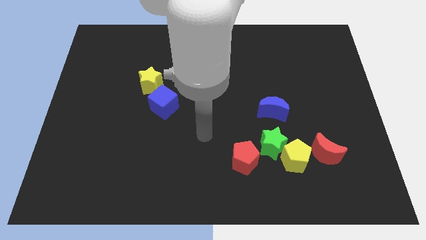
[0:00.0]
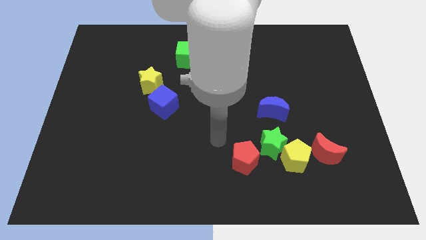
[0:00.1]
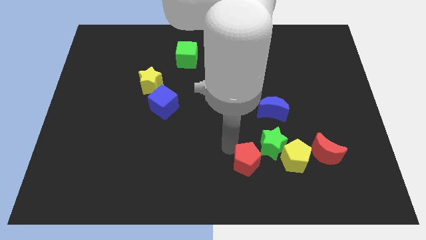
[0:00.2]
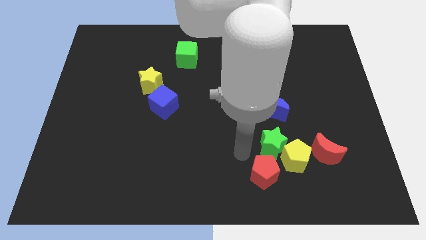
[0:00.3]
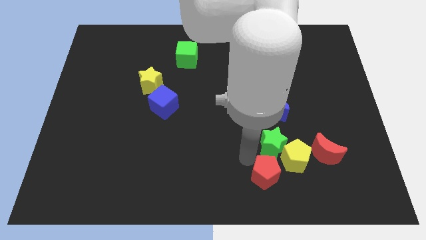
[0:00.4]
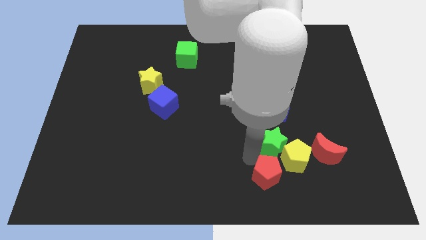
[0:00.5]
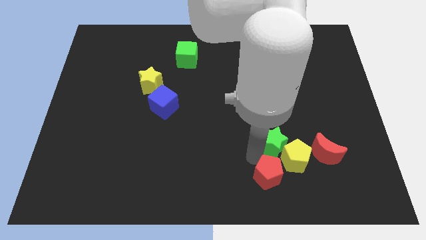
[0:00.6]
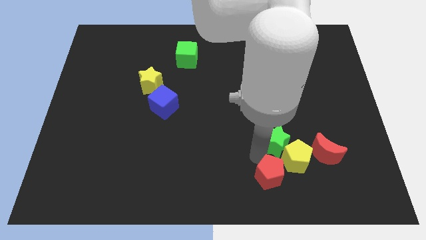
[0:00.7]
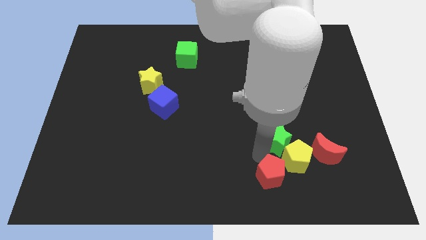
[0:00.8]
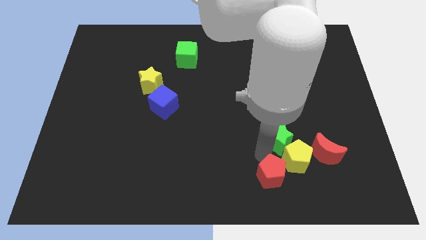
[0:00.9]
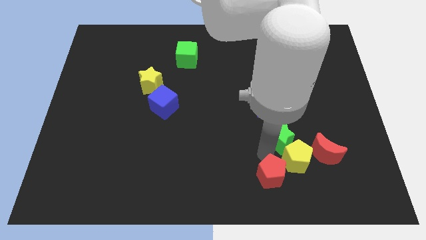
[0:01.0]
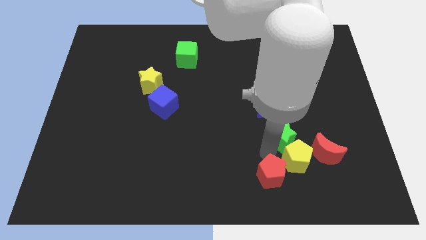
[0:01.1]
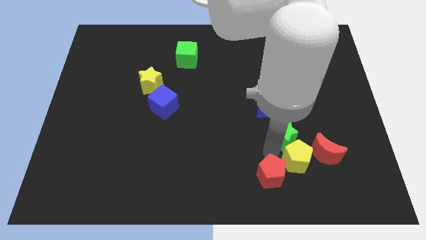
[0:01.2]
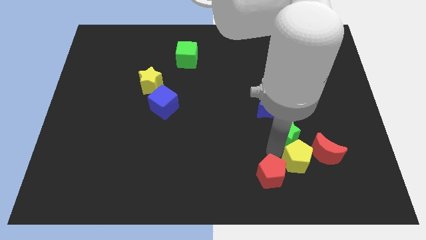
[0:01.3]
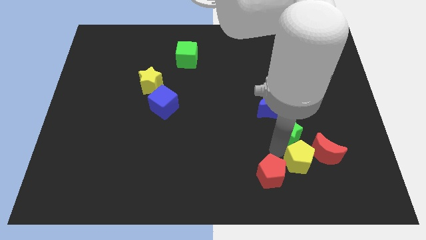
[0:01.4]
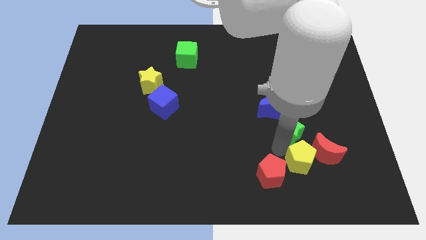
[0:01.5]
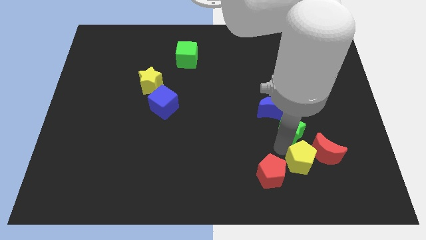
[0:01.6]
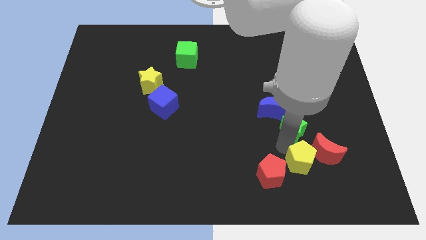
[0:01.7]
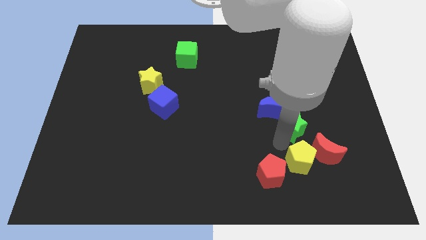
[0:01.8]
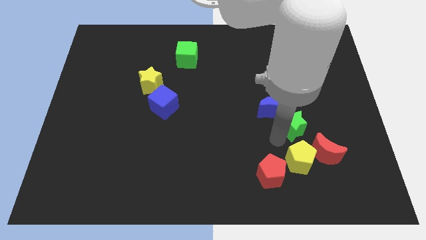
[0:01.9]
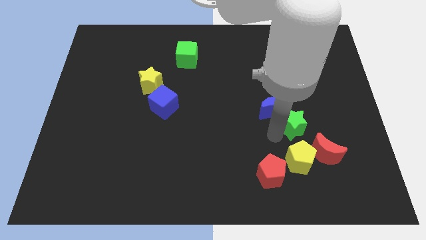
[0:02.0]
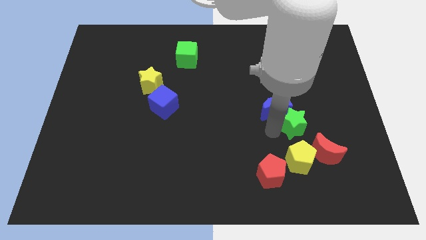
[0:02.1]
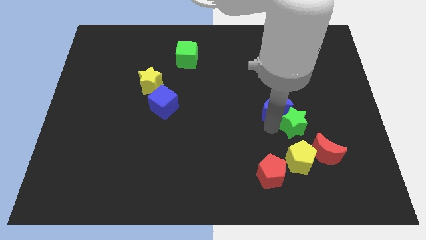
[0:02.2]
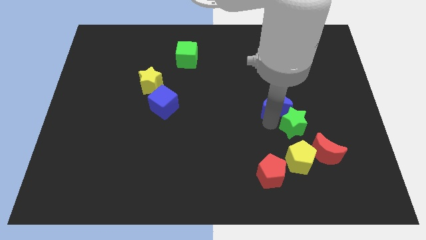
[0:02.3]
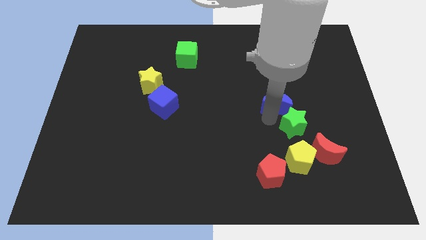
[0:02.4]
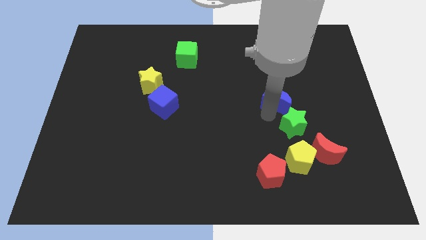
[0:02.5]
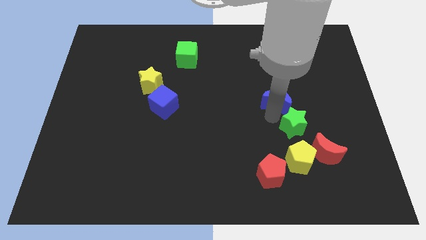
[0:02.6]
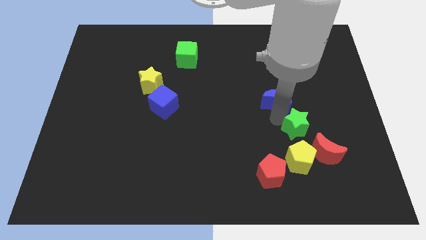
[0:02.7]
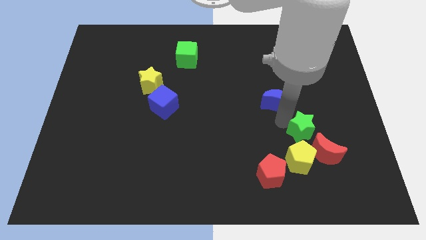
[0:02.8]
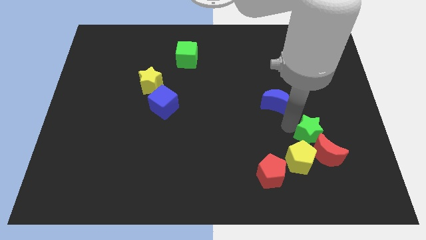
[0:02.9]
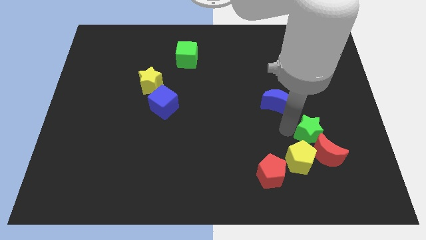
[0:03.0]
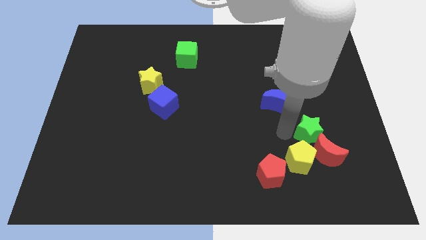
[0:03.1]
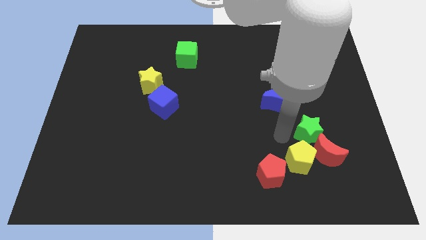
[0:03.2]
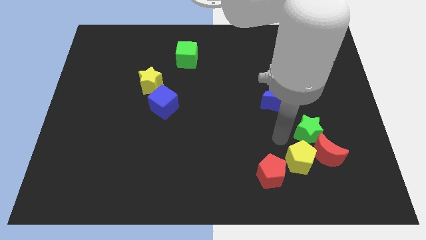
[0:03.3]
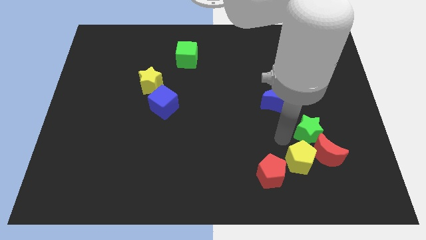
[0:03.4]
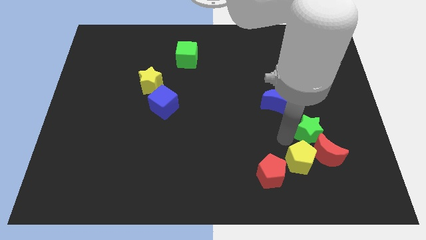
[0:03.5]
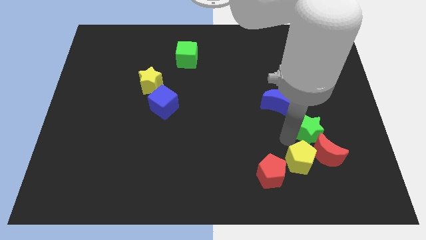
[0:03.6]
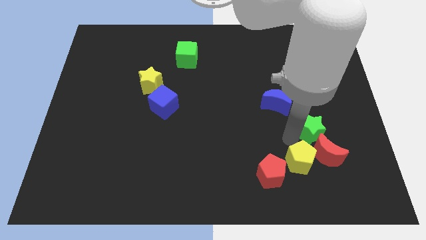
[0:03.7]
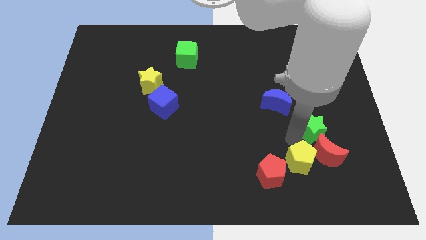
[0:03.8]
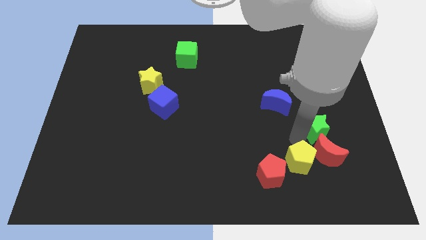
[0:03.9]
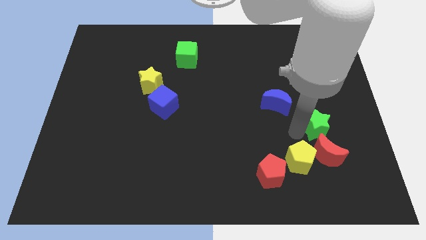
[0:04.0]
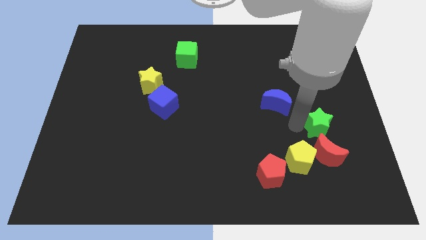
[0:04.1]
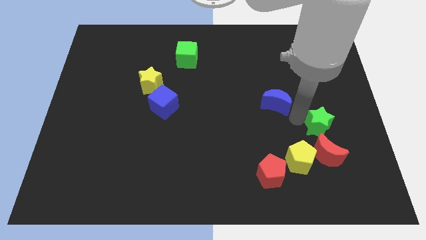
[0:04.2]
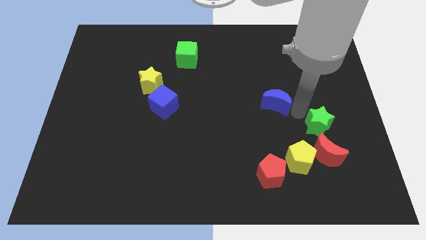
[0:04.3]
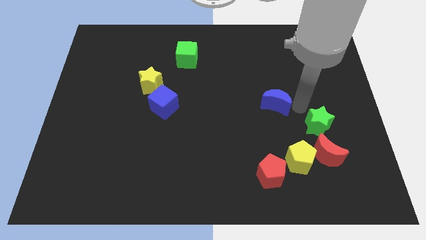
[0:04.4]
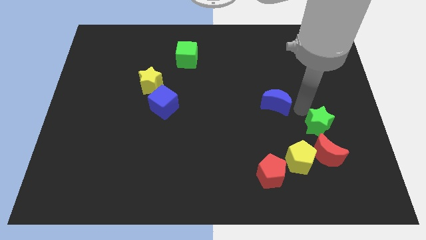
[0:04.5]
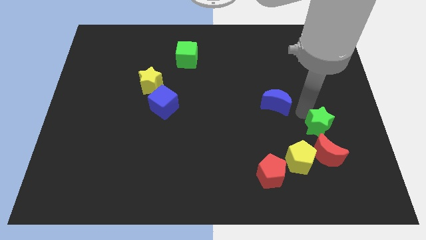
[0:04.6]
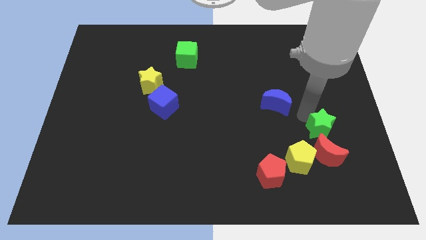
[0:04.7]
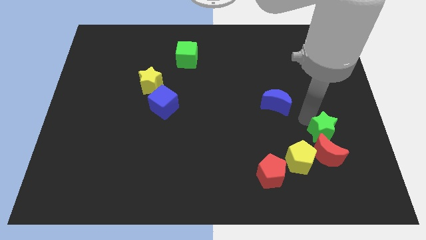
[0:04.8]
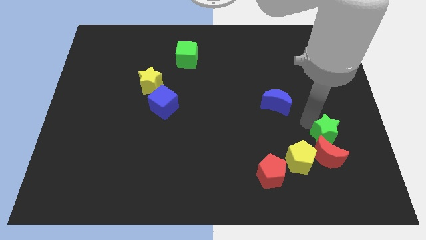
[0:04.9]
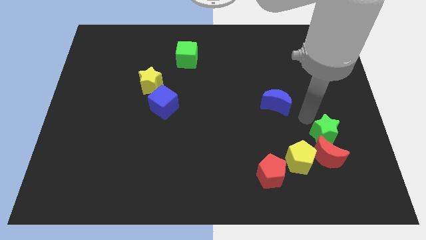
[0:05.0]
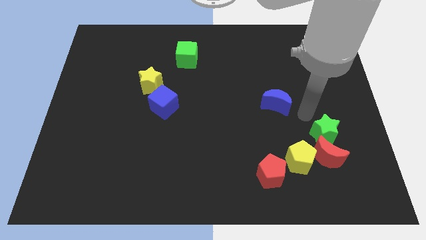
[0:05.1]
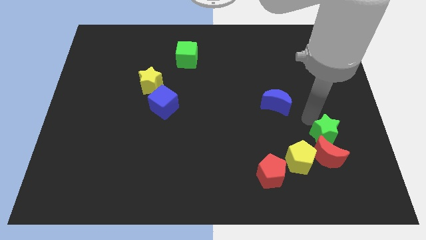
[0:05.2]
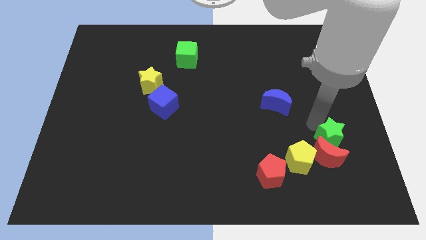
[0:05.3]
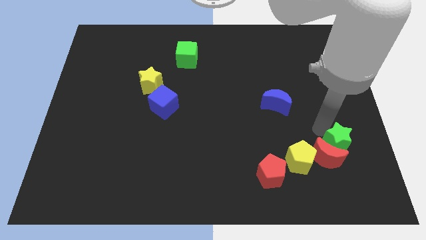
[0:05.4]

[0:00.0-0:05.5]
put the green star to the right of the yellow pentagon

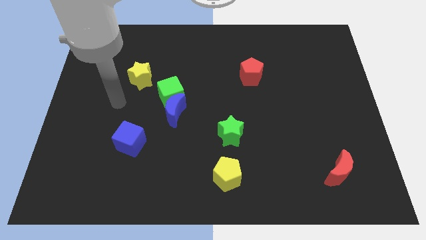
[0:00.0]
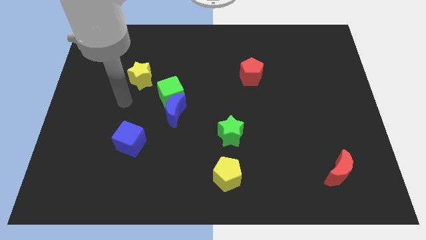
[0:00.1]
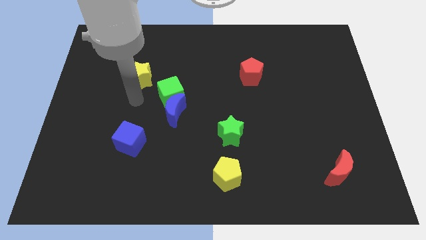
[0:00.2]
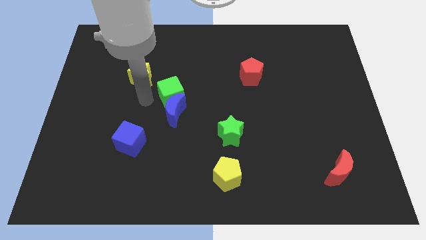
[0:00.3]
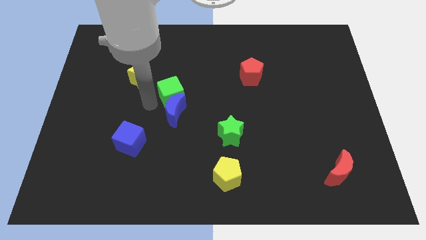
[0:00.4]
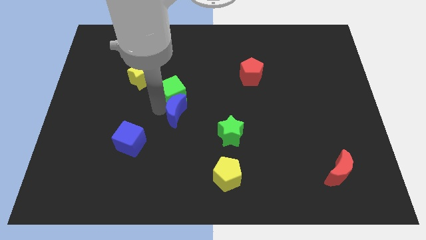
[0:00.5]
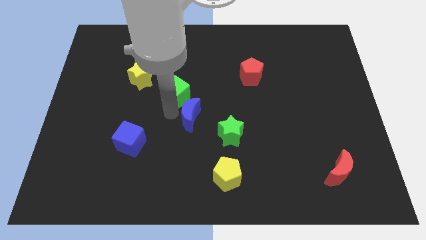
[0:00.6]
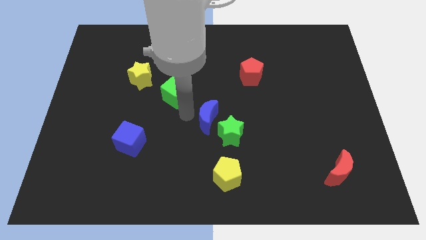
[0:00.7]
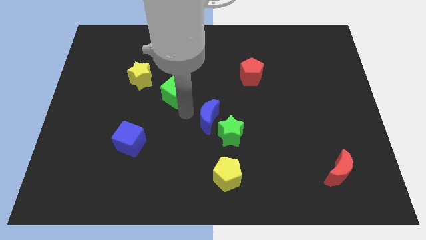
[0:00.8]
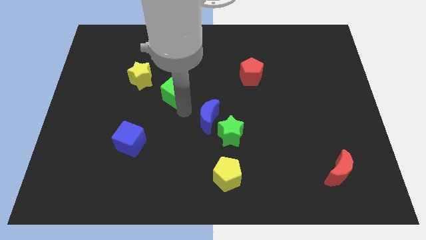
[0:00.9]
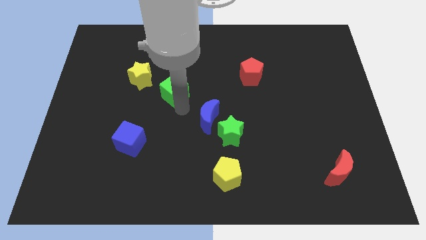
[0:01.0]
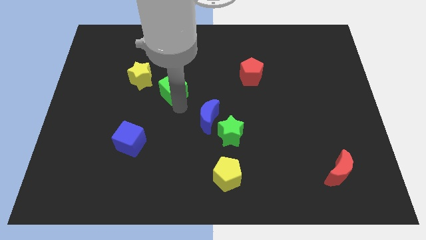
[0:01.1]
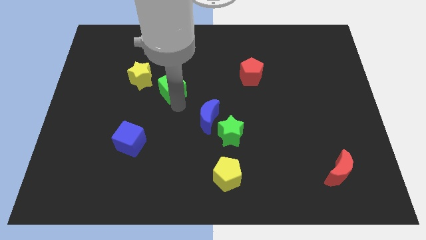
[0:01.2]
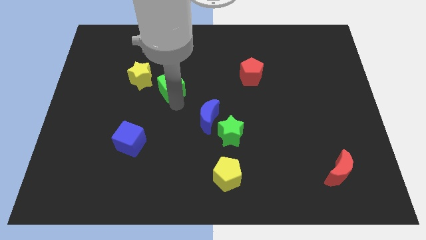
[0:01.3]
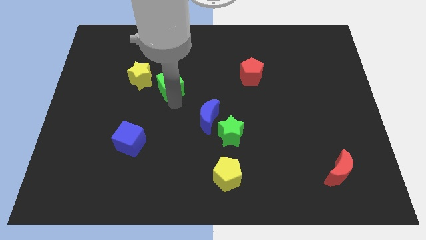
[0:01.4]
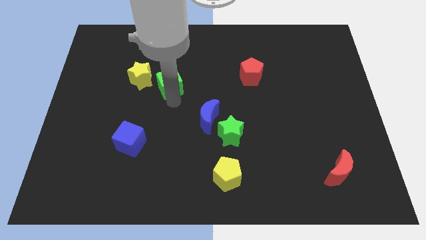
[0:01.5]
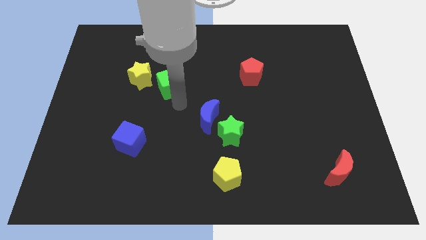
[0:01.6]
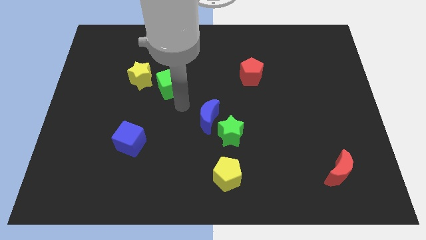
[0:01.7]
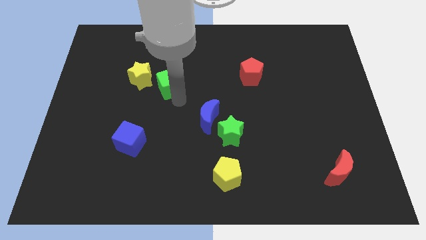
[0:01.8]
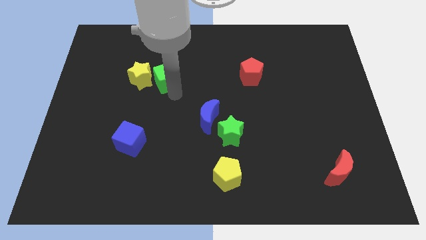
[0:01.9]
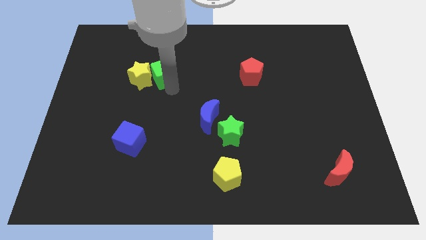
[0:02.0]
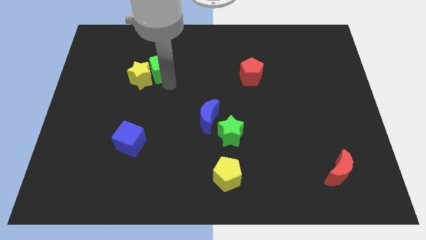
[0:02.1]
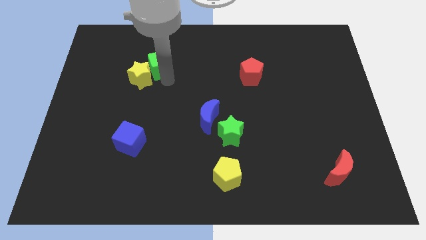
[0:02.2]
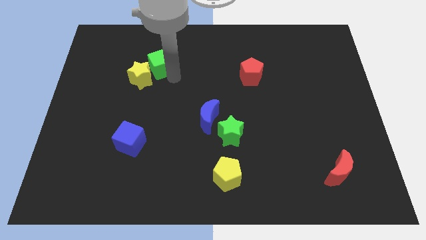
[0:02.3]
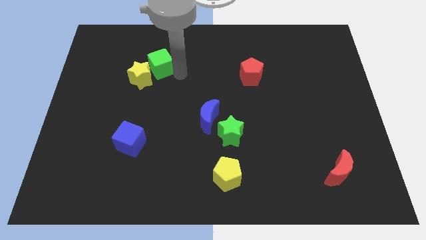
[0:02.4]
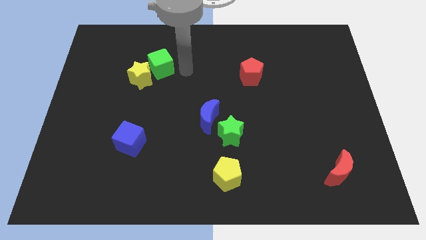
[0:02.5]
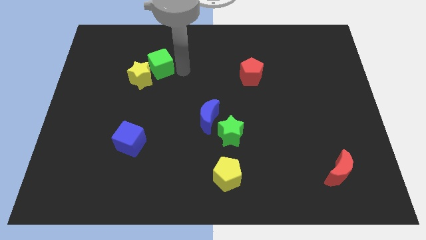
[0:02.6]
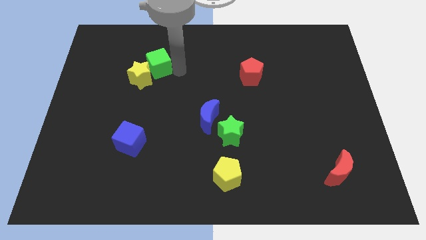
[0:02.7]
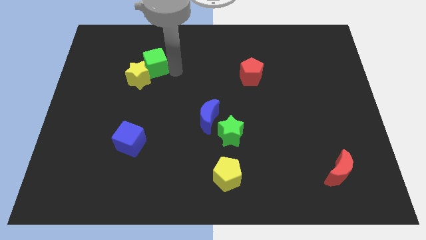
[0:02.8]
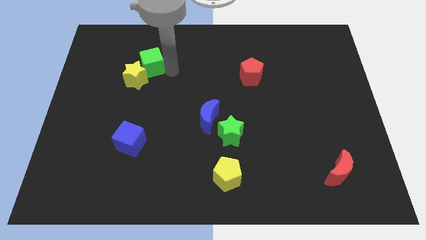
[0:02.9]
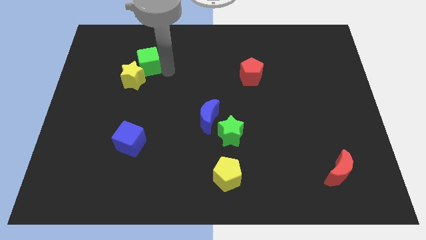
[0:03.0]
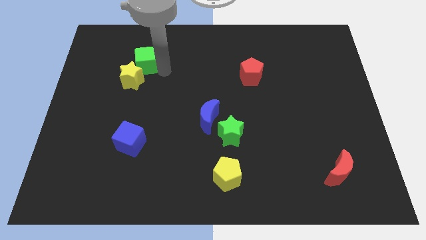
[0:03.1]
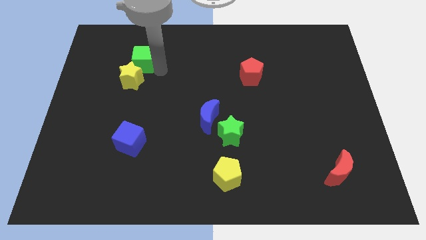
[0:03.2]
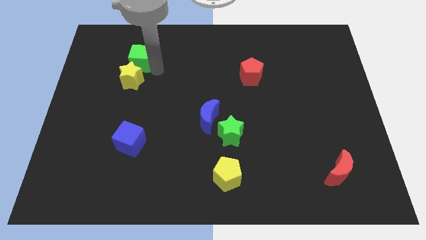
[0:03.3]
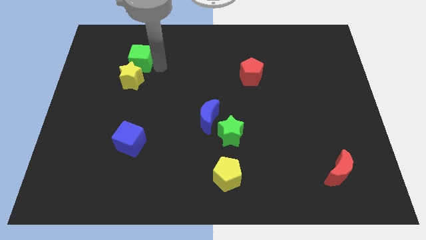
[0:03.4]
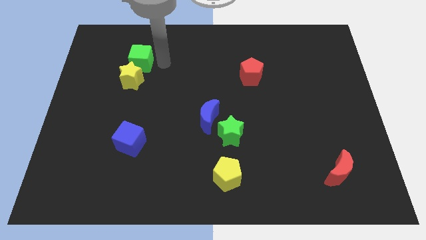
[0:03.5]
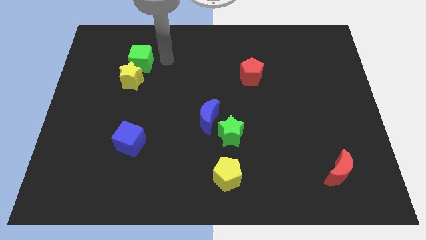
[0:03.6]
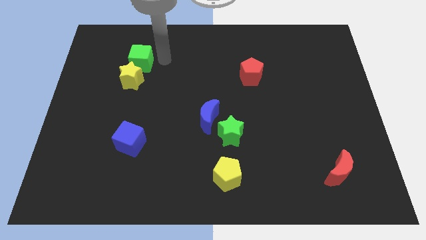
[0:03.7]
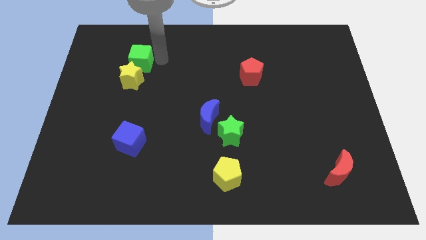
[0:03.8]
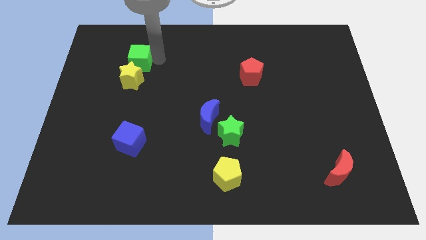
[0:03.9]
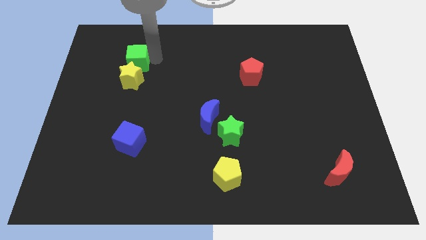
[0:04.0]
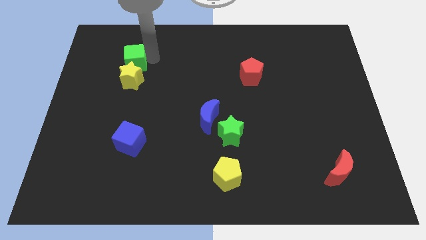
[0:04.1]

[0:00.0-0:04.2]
put the green cube diagonally up and to the left of the yellow star
